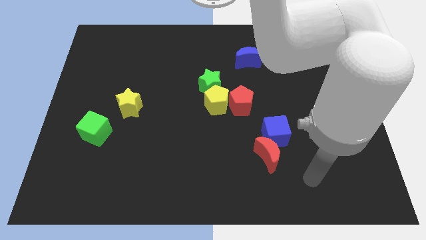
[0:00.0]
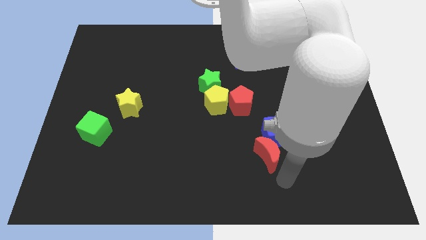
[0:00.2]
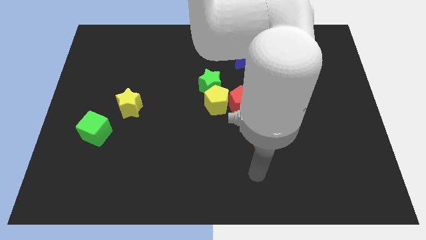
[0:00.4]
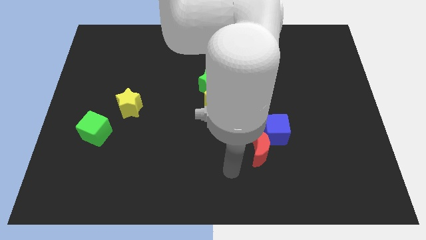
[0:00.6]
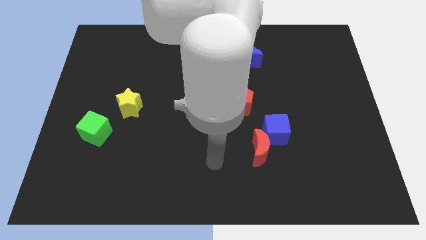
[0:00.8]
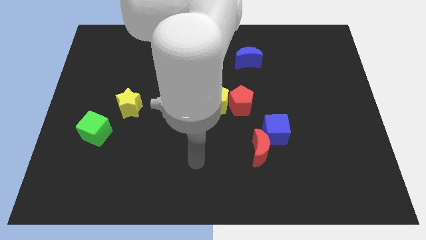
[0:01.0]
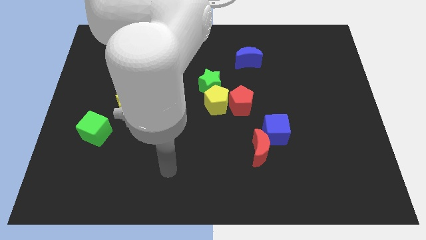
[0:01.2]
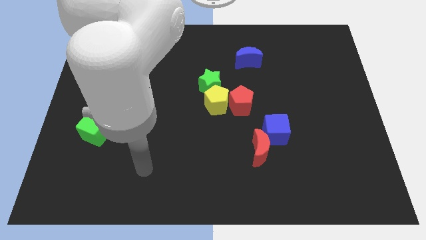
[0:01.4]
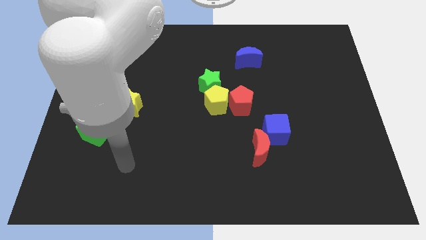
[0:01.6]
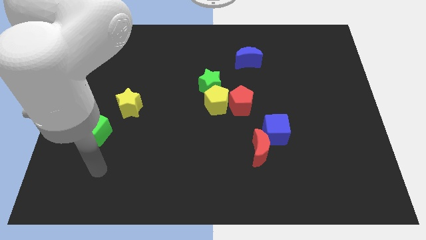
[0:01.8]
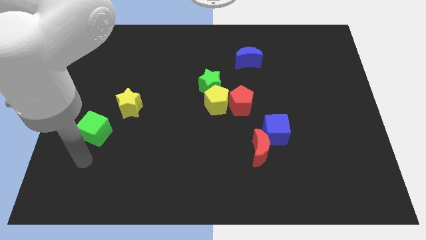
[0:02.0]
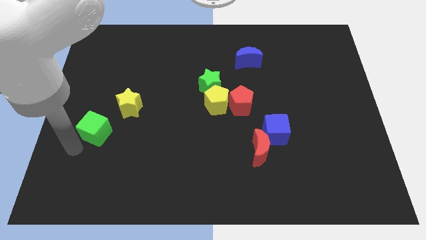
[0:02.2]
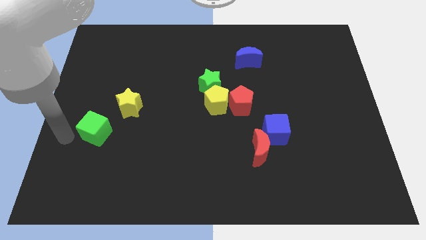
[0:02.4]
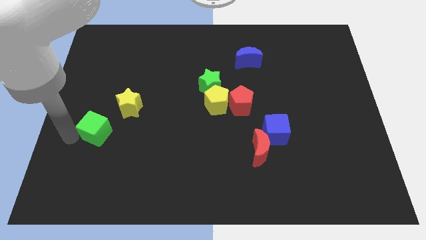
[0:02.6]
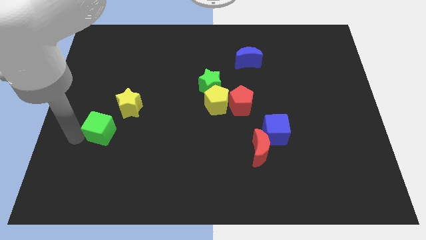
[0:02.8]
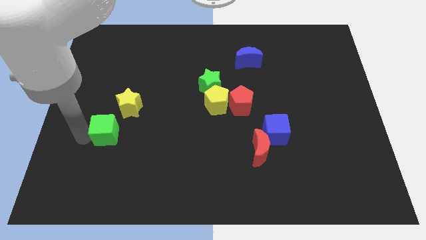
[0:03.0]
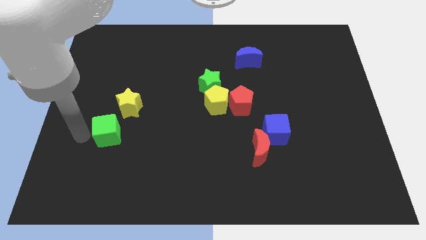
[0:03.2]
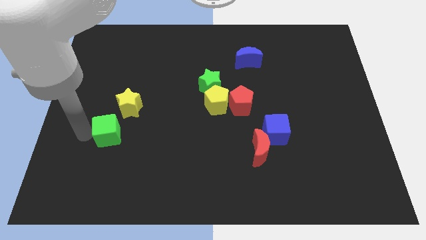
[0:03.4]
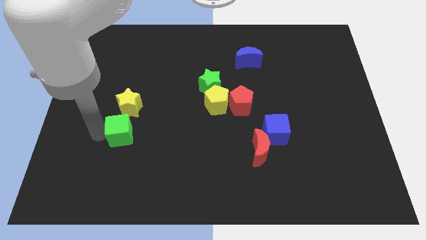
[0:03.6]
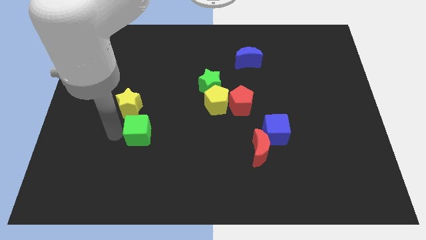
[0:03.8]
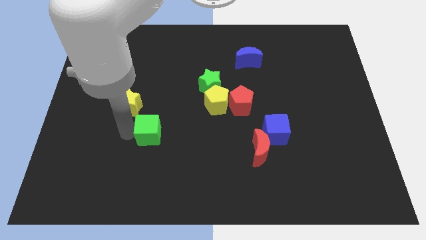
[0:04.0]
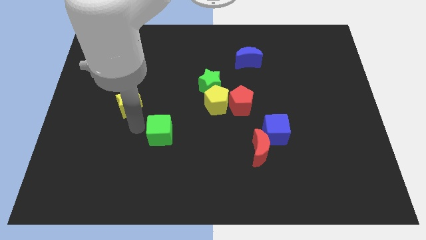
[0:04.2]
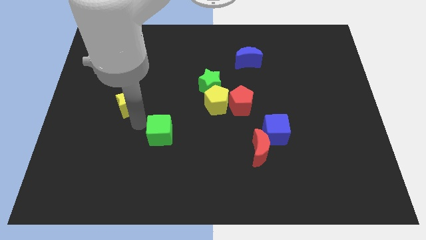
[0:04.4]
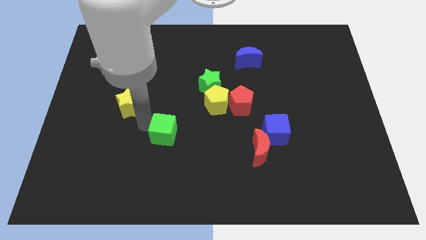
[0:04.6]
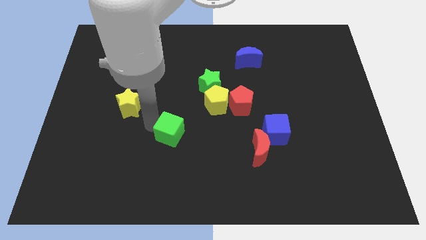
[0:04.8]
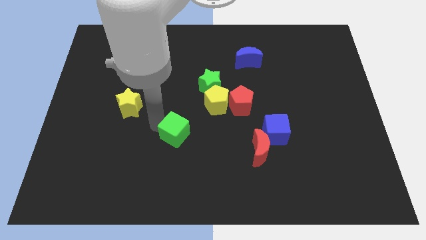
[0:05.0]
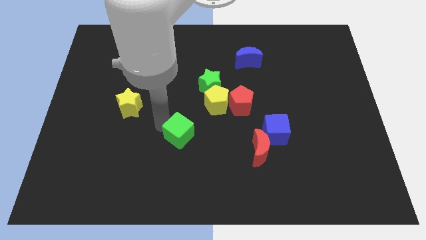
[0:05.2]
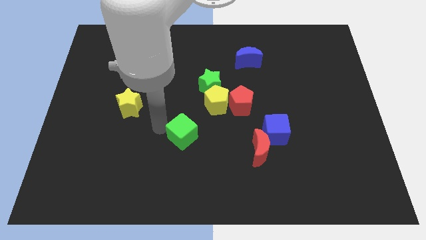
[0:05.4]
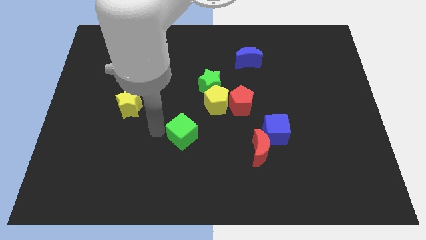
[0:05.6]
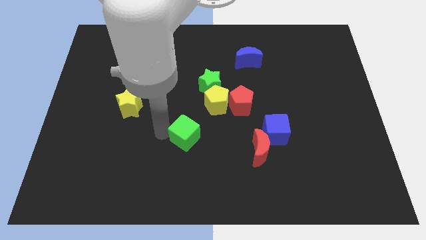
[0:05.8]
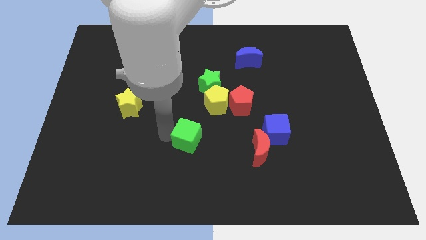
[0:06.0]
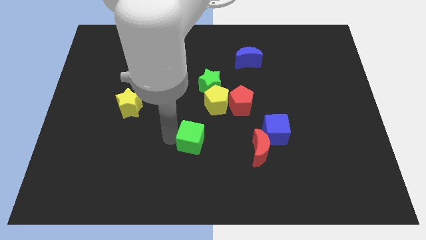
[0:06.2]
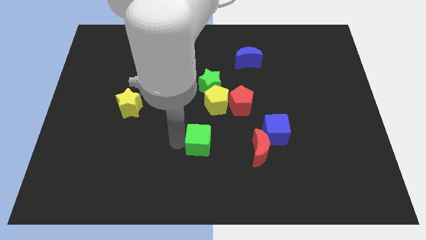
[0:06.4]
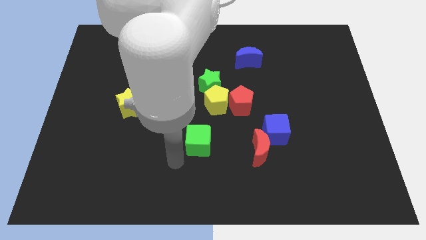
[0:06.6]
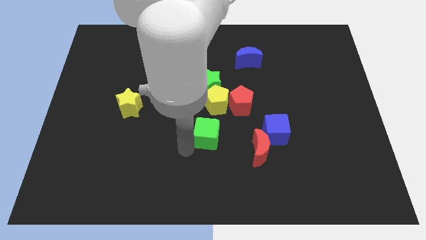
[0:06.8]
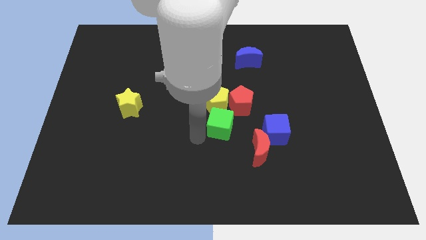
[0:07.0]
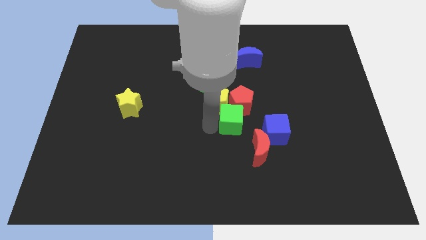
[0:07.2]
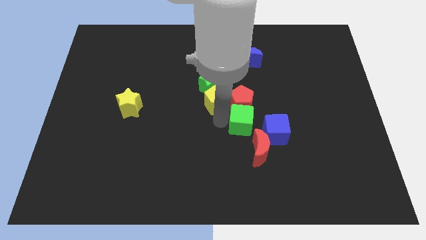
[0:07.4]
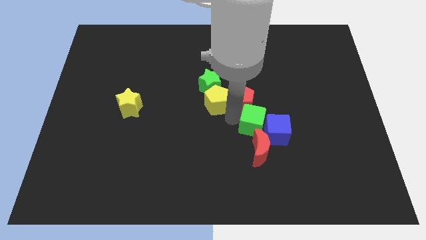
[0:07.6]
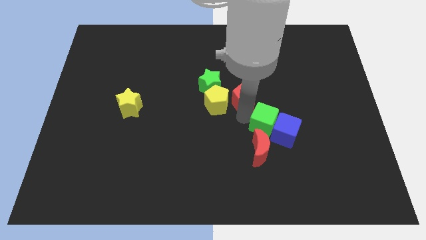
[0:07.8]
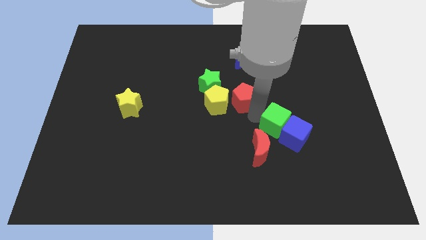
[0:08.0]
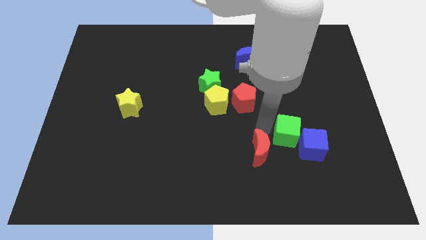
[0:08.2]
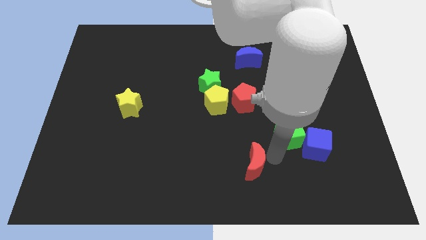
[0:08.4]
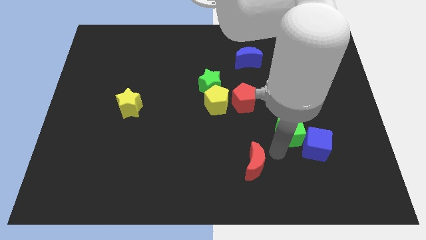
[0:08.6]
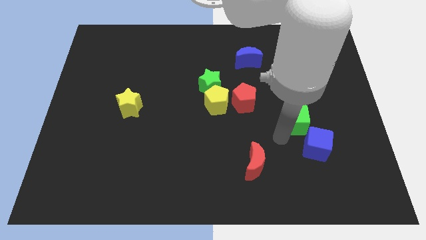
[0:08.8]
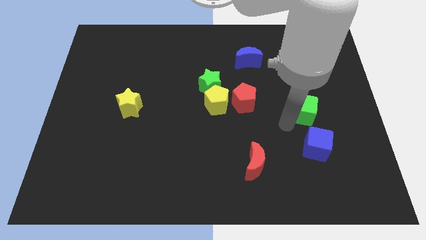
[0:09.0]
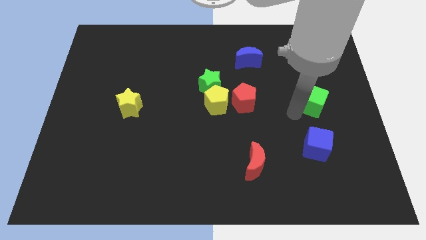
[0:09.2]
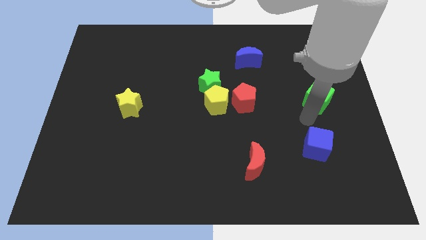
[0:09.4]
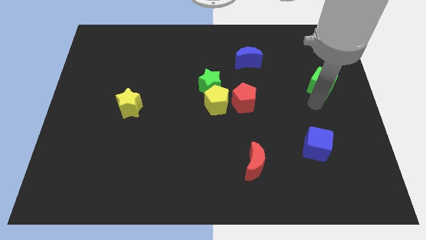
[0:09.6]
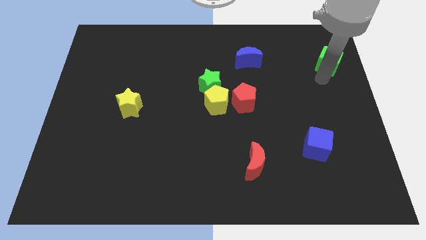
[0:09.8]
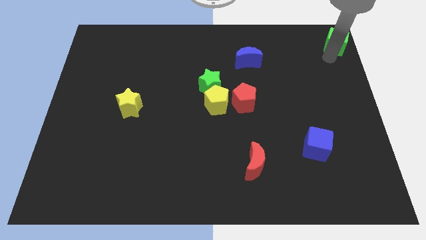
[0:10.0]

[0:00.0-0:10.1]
put the green cube to the top right

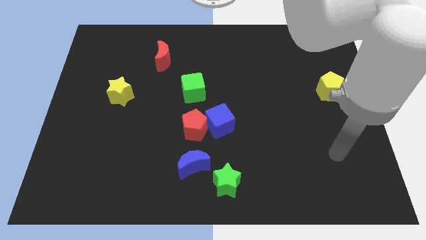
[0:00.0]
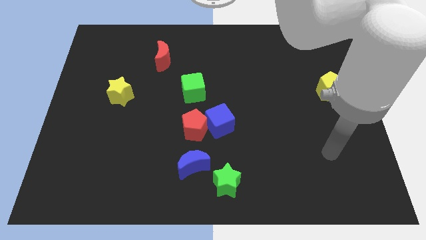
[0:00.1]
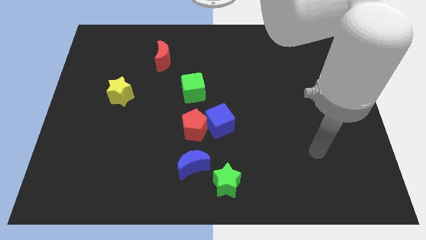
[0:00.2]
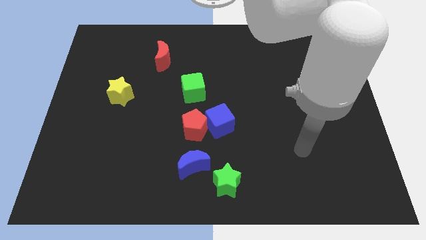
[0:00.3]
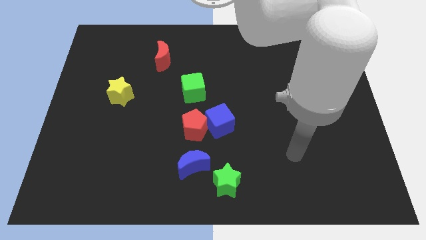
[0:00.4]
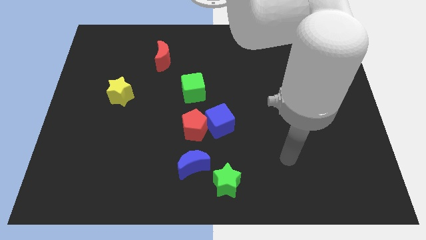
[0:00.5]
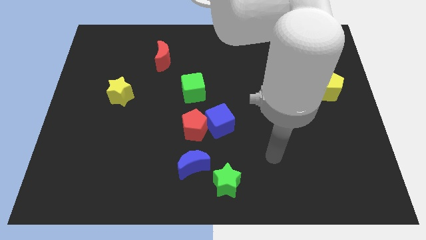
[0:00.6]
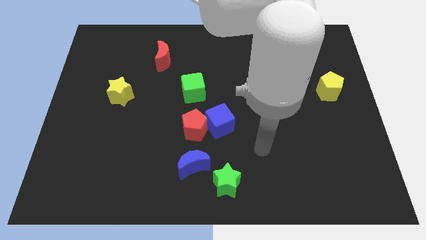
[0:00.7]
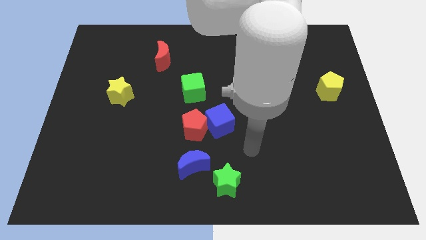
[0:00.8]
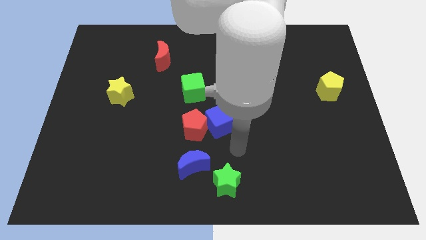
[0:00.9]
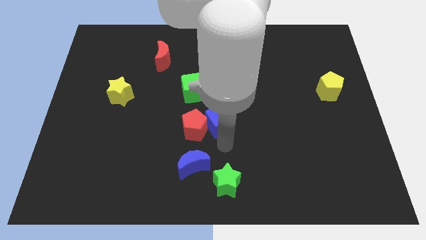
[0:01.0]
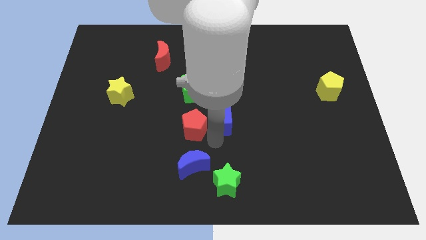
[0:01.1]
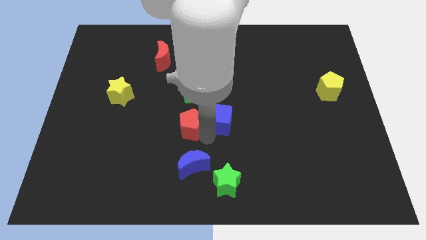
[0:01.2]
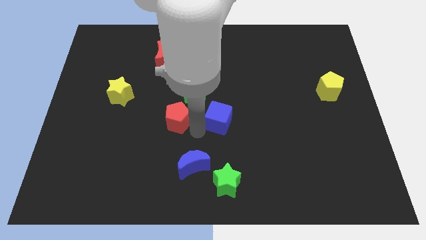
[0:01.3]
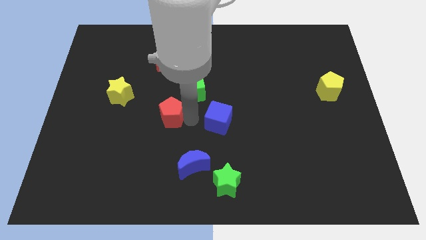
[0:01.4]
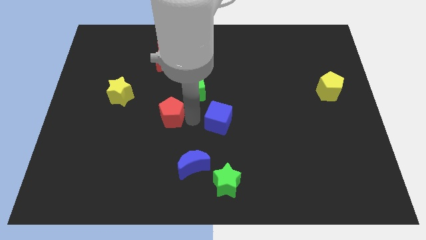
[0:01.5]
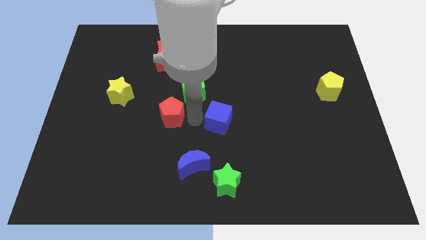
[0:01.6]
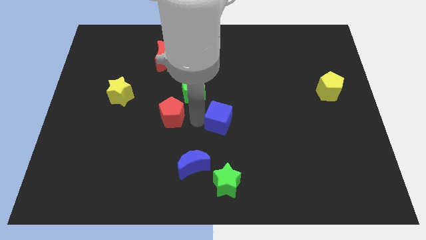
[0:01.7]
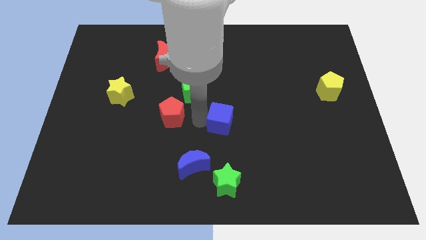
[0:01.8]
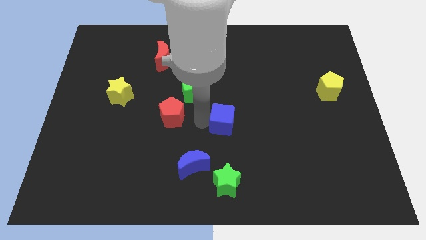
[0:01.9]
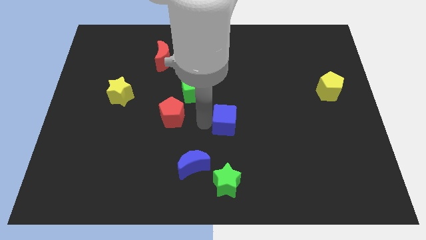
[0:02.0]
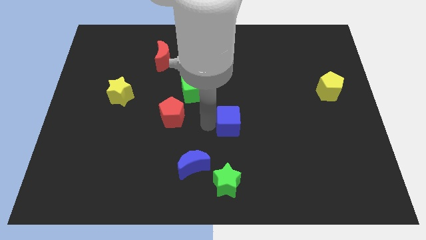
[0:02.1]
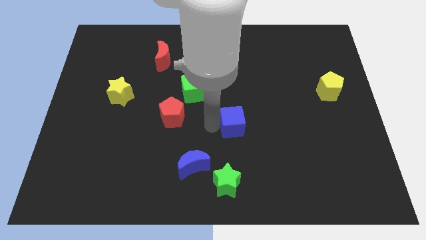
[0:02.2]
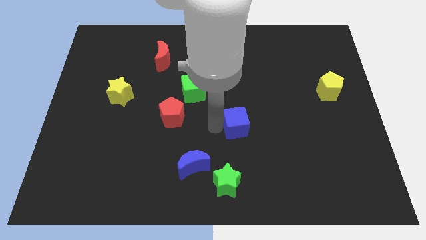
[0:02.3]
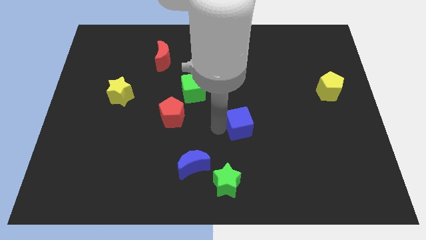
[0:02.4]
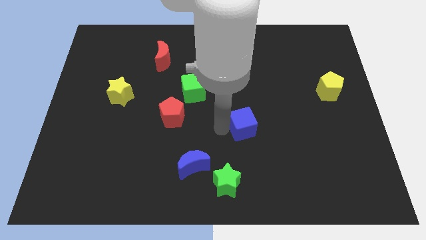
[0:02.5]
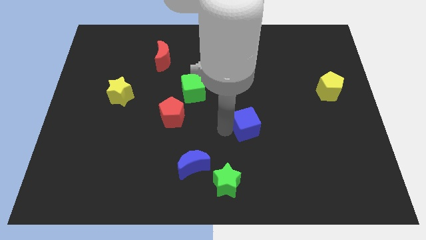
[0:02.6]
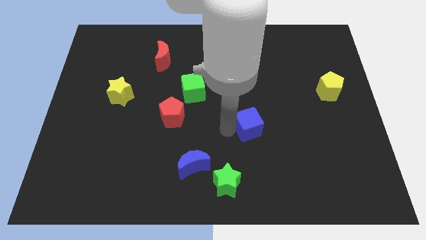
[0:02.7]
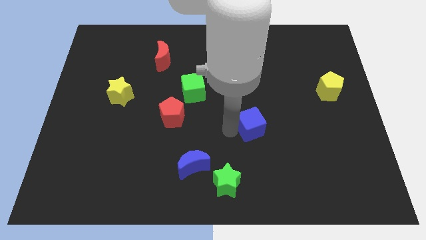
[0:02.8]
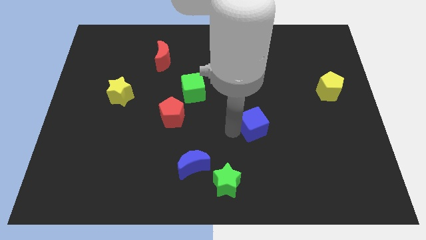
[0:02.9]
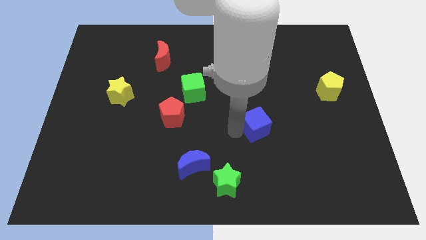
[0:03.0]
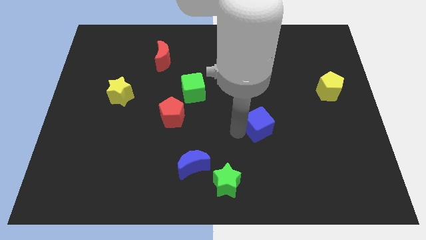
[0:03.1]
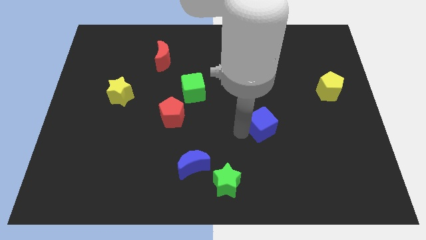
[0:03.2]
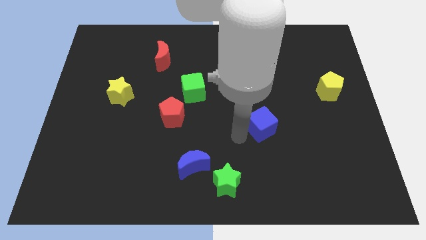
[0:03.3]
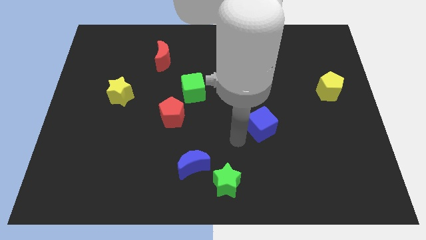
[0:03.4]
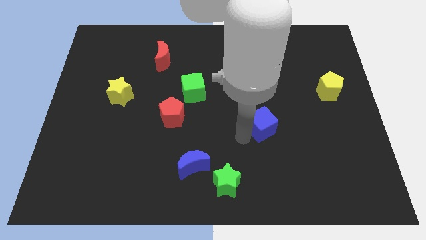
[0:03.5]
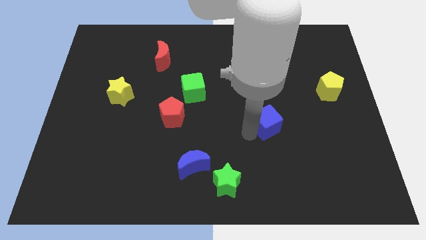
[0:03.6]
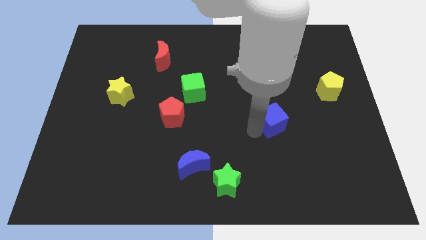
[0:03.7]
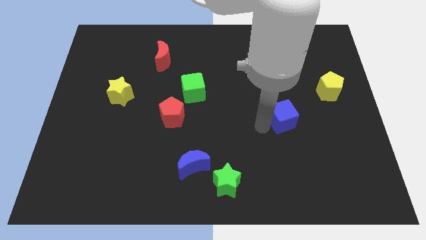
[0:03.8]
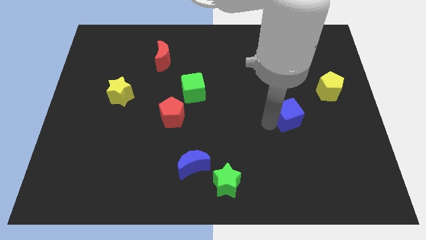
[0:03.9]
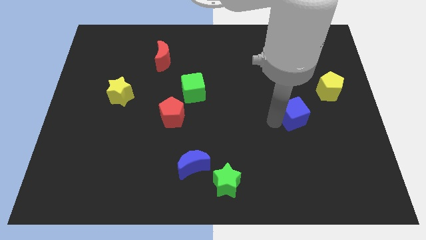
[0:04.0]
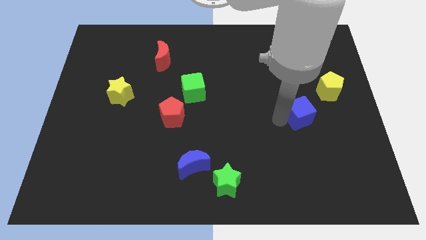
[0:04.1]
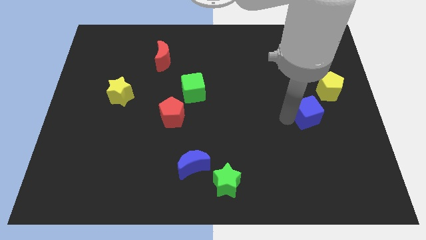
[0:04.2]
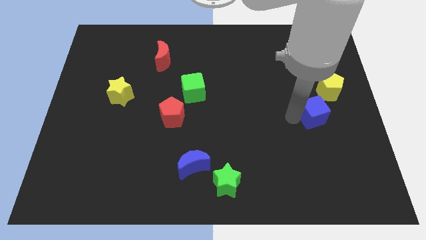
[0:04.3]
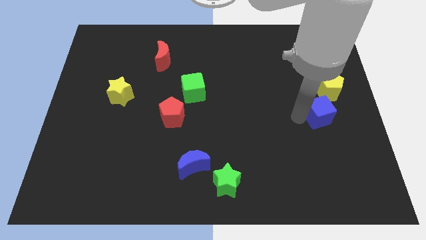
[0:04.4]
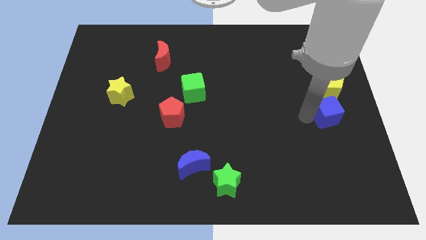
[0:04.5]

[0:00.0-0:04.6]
slide the blue cube to the right side of the board
